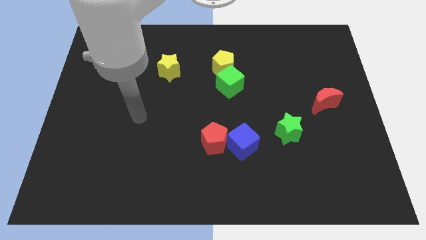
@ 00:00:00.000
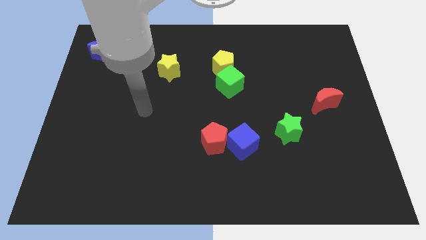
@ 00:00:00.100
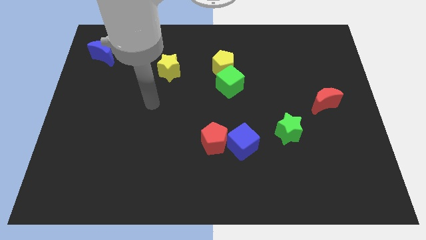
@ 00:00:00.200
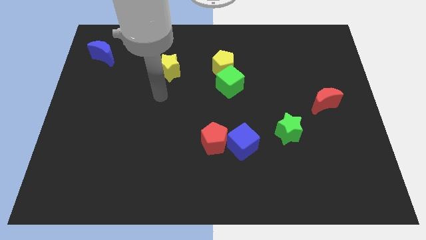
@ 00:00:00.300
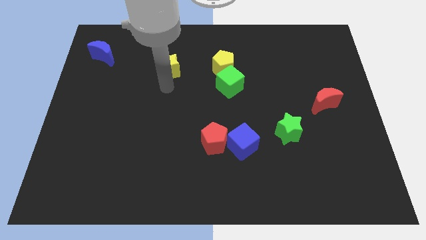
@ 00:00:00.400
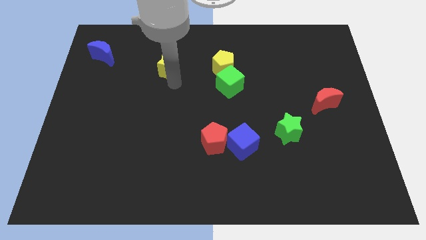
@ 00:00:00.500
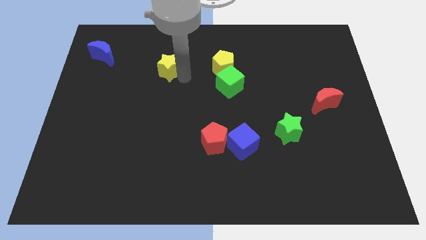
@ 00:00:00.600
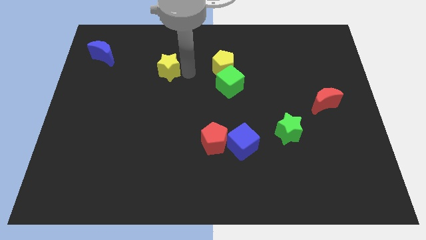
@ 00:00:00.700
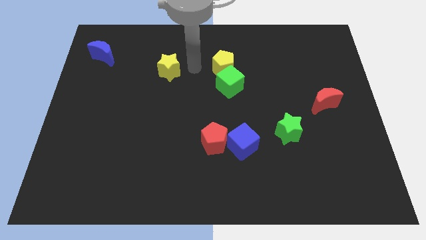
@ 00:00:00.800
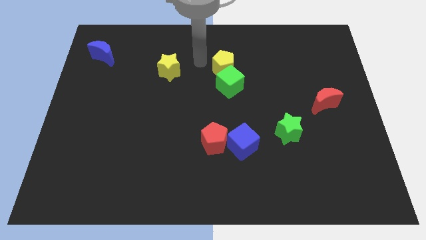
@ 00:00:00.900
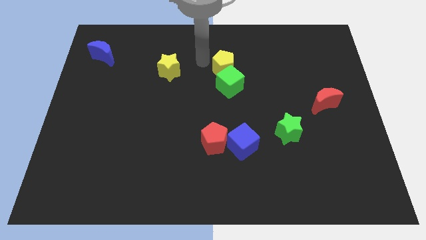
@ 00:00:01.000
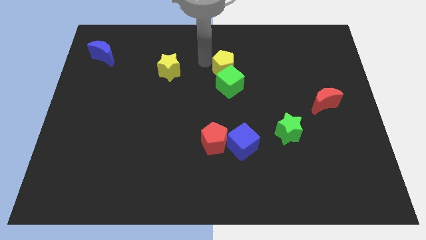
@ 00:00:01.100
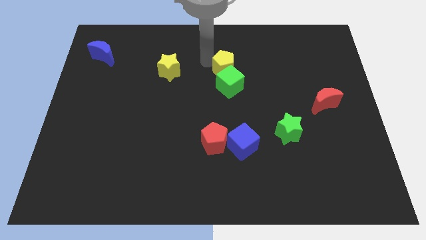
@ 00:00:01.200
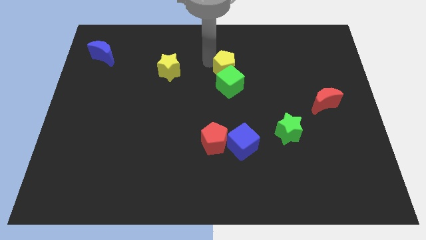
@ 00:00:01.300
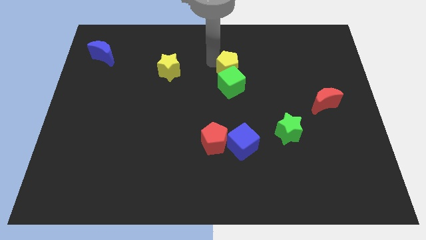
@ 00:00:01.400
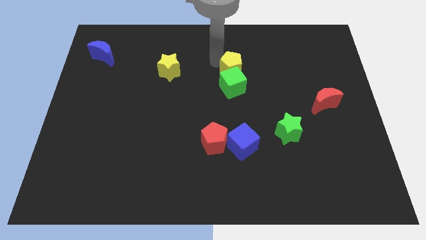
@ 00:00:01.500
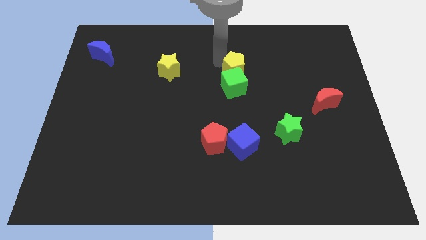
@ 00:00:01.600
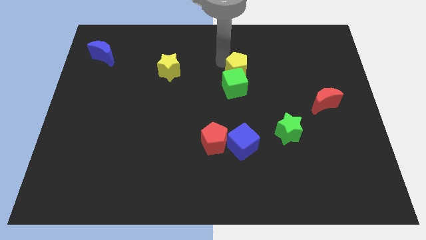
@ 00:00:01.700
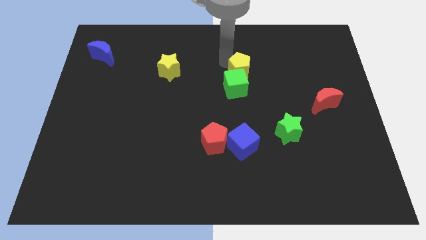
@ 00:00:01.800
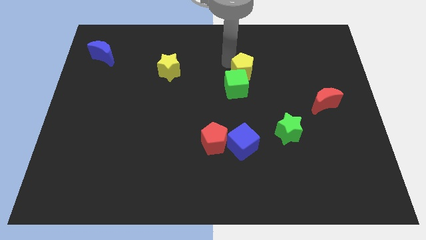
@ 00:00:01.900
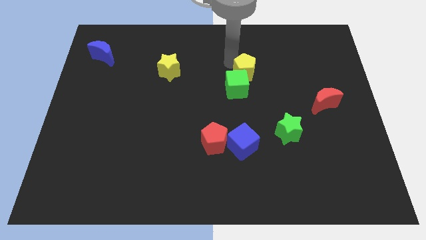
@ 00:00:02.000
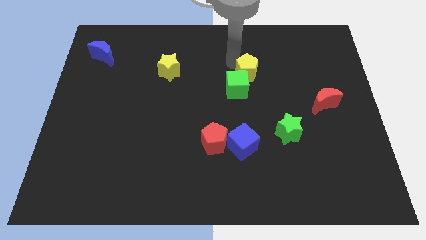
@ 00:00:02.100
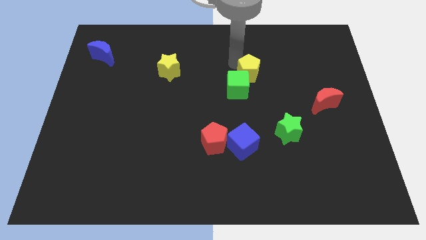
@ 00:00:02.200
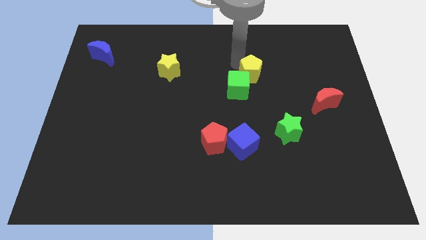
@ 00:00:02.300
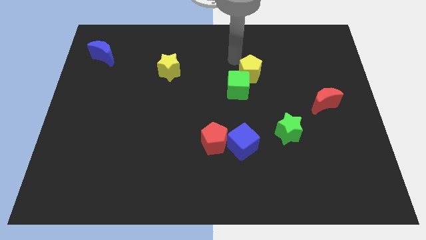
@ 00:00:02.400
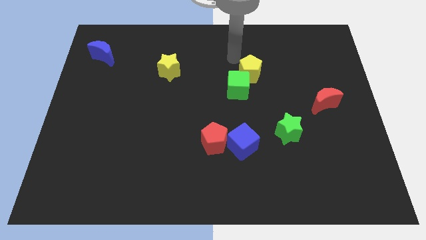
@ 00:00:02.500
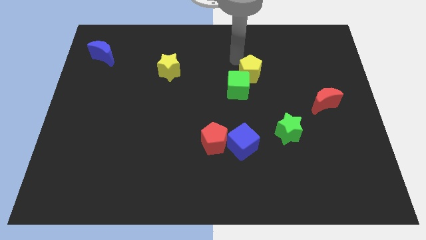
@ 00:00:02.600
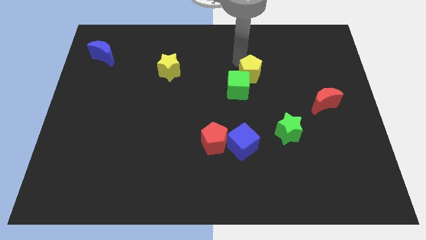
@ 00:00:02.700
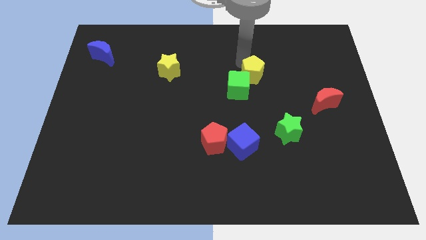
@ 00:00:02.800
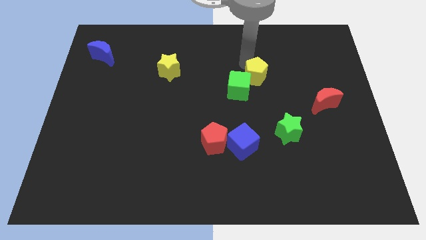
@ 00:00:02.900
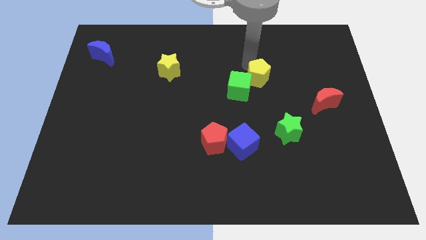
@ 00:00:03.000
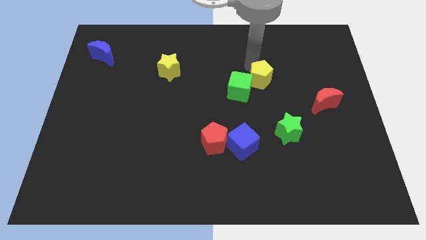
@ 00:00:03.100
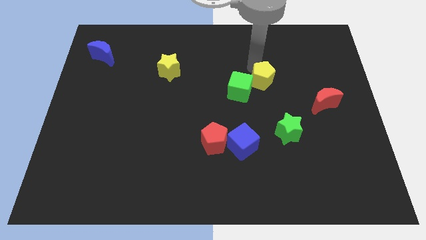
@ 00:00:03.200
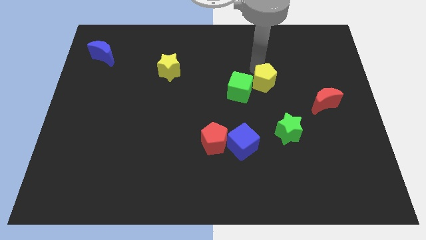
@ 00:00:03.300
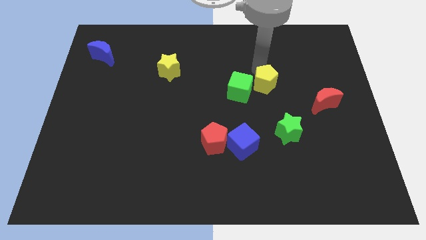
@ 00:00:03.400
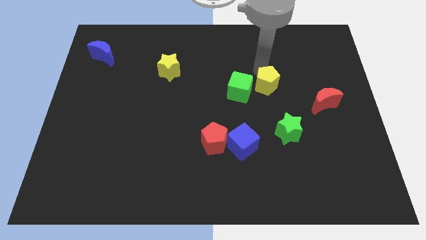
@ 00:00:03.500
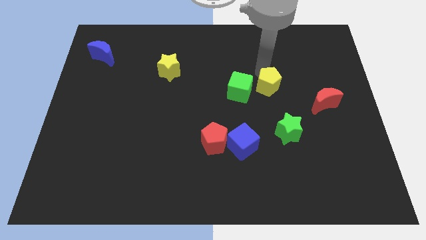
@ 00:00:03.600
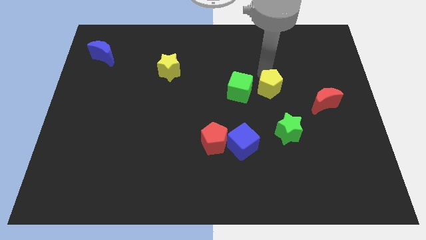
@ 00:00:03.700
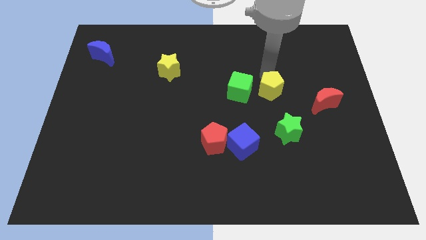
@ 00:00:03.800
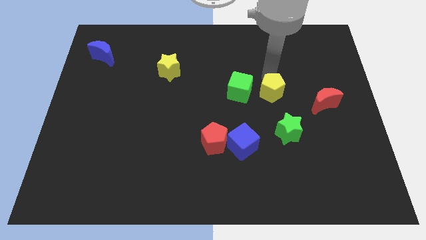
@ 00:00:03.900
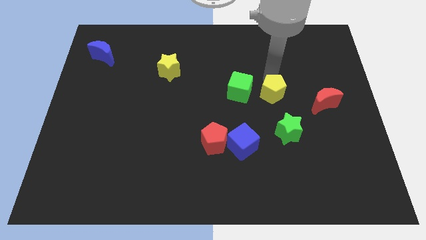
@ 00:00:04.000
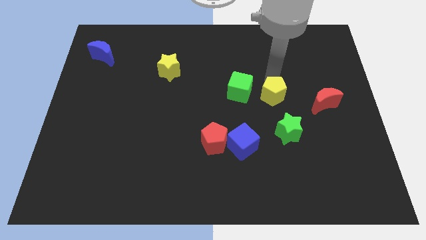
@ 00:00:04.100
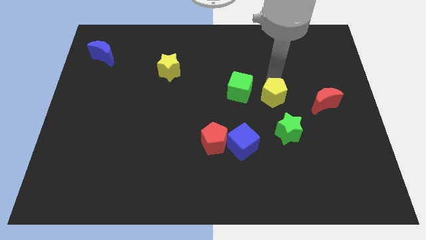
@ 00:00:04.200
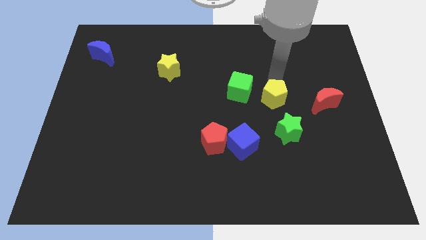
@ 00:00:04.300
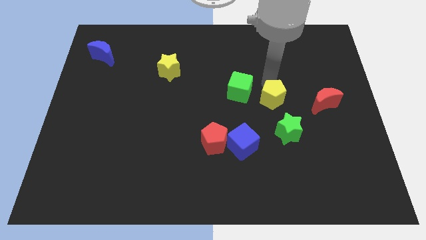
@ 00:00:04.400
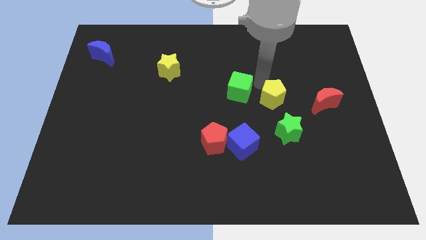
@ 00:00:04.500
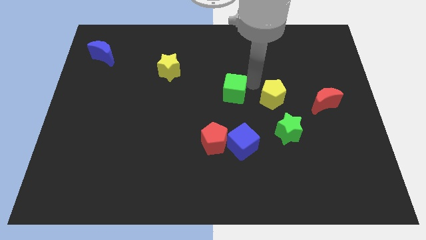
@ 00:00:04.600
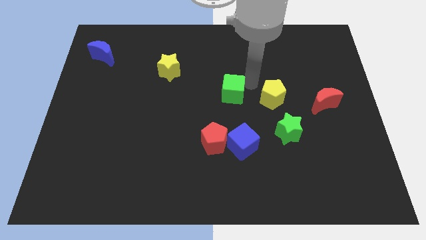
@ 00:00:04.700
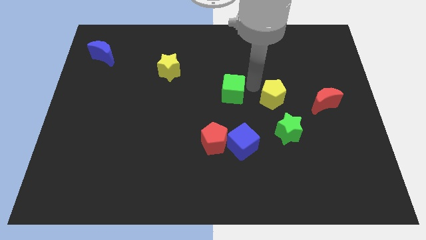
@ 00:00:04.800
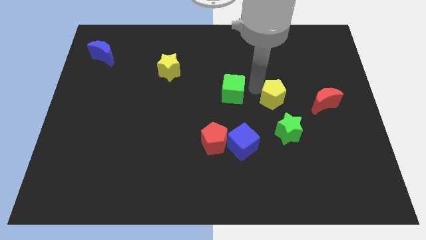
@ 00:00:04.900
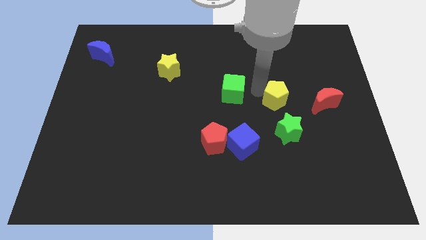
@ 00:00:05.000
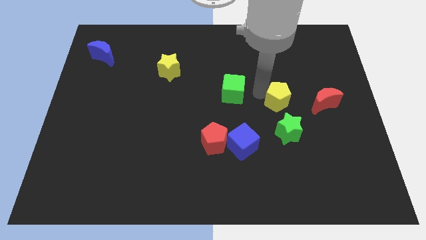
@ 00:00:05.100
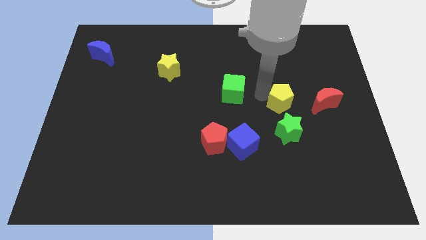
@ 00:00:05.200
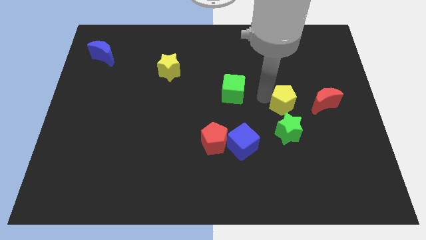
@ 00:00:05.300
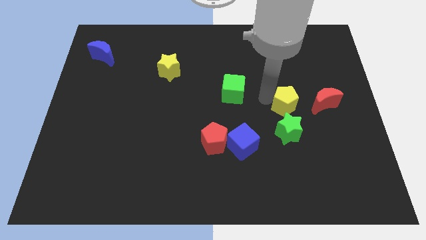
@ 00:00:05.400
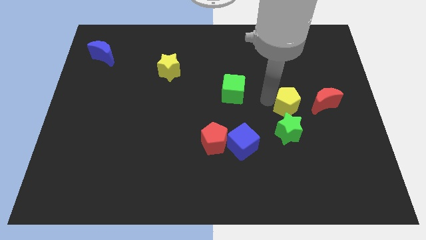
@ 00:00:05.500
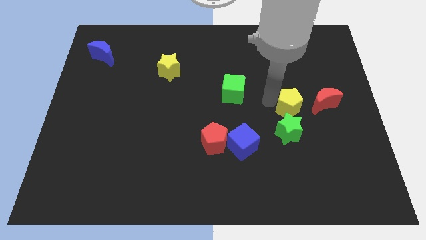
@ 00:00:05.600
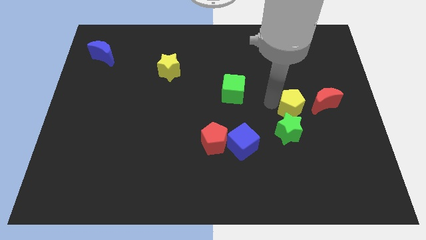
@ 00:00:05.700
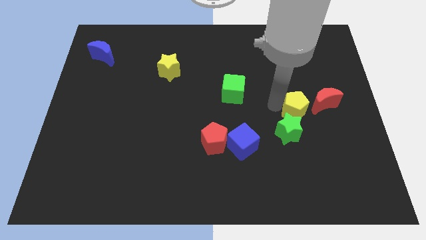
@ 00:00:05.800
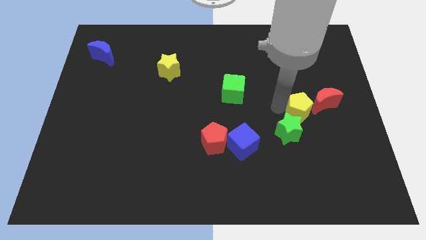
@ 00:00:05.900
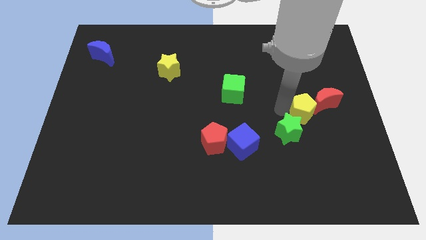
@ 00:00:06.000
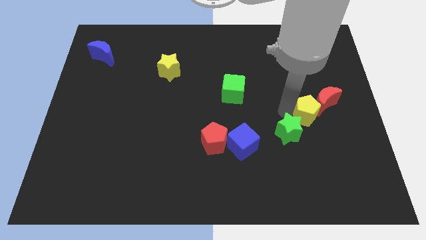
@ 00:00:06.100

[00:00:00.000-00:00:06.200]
put the yellow pentagon to the right side of the green star

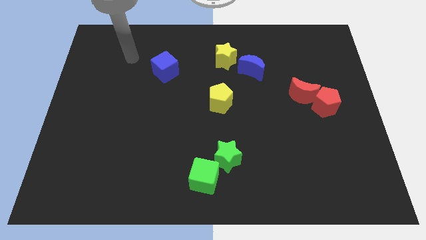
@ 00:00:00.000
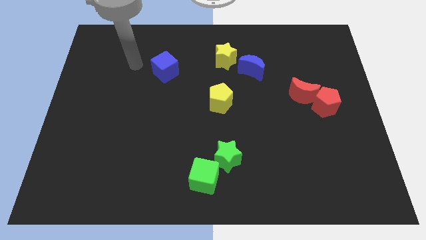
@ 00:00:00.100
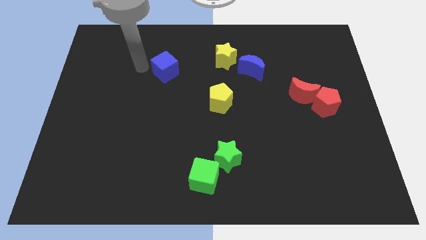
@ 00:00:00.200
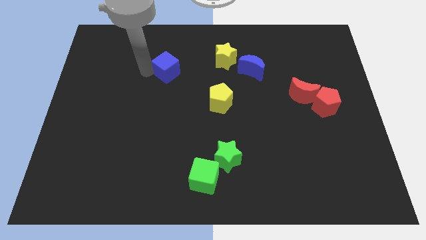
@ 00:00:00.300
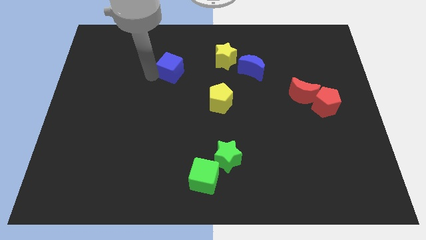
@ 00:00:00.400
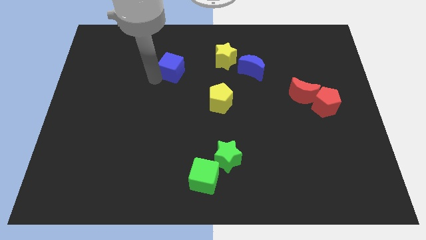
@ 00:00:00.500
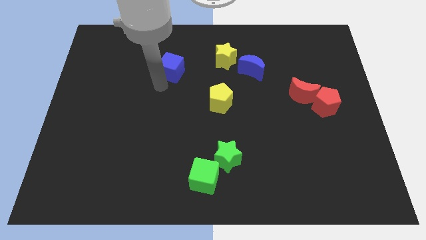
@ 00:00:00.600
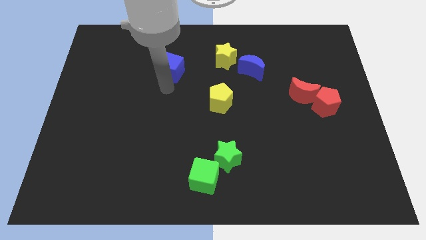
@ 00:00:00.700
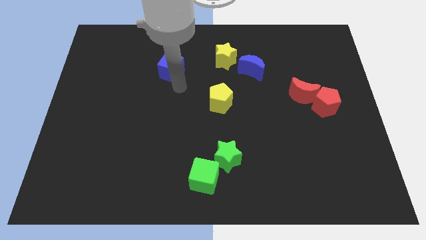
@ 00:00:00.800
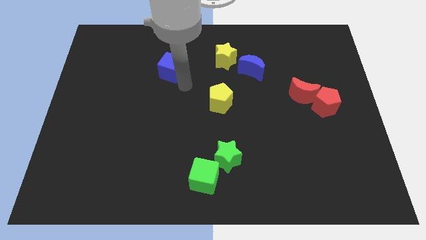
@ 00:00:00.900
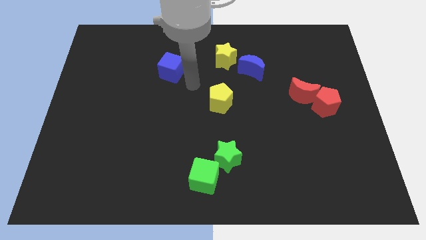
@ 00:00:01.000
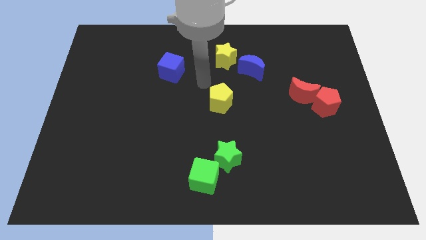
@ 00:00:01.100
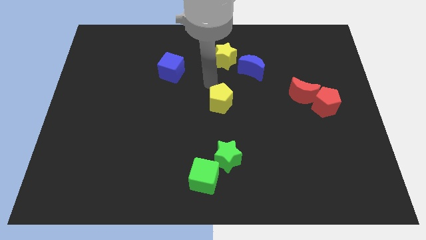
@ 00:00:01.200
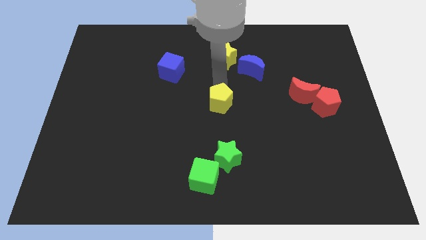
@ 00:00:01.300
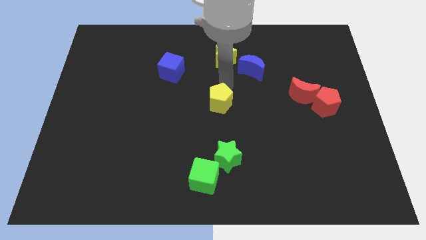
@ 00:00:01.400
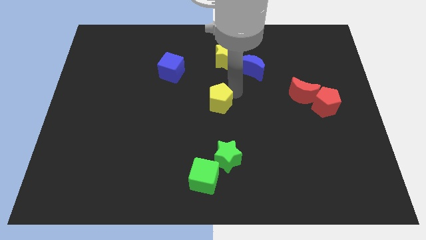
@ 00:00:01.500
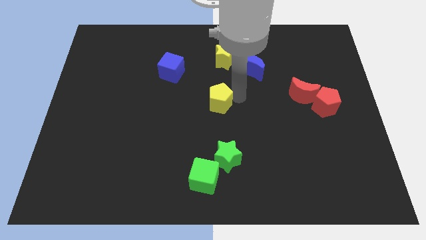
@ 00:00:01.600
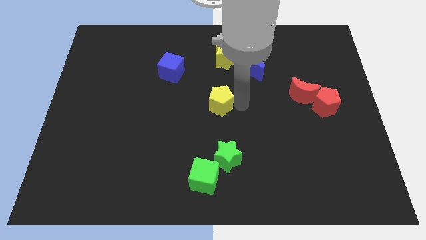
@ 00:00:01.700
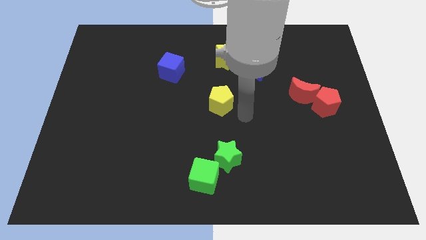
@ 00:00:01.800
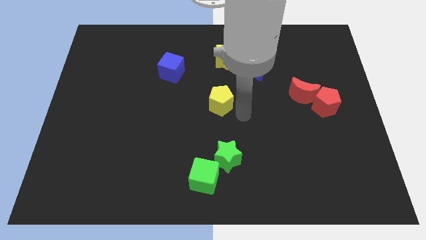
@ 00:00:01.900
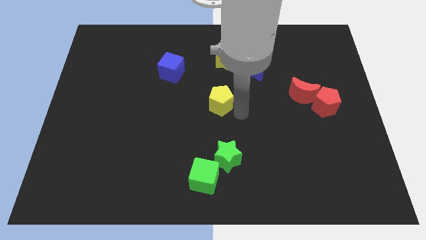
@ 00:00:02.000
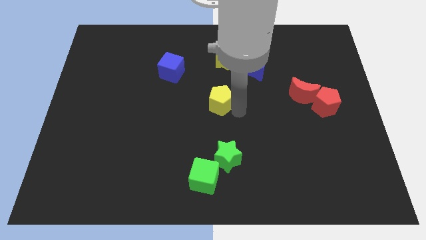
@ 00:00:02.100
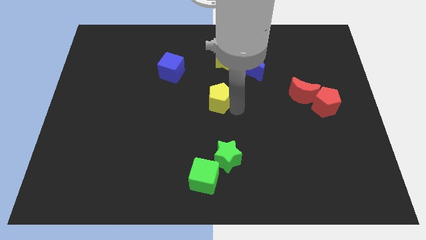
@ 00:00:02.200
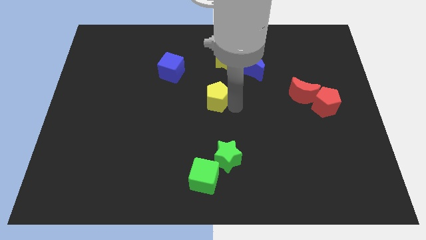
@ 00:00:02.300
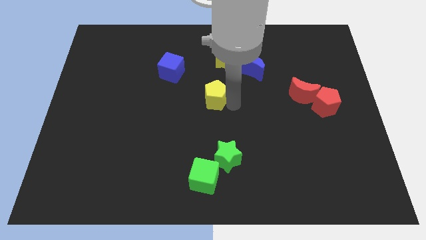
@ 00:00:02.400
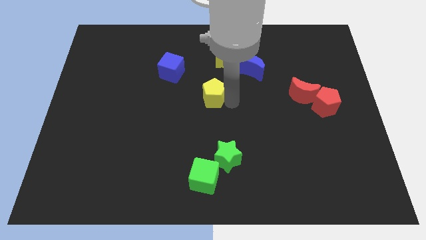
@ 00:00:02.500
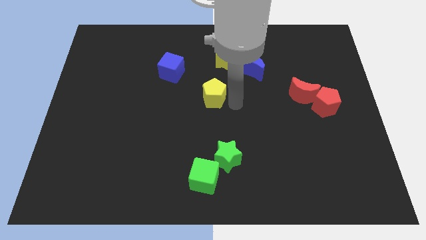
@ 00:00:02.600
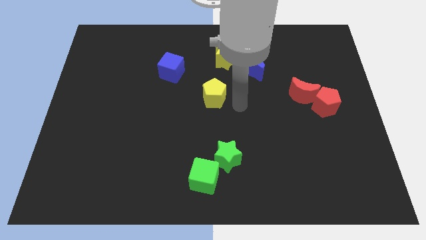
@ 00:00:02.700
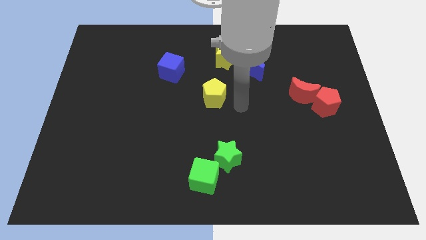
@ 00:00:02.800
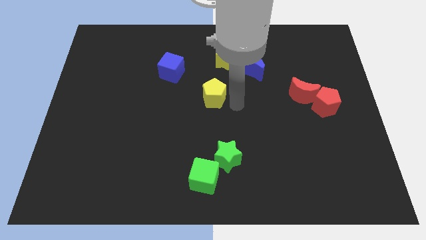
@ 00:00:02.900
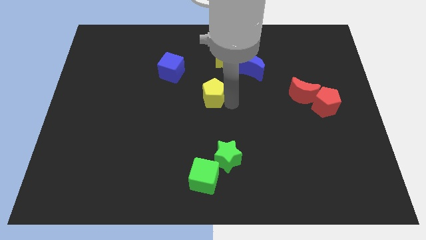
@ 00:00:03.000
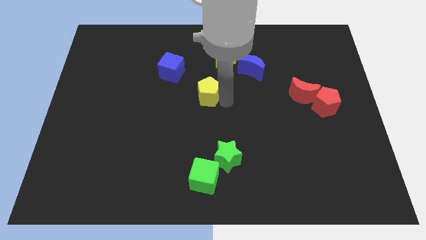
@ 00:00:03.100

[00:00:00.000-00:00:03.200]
push the yellow pentagon to the bottom right of the blue cube
